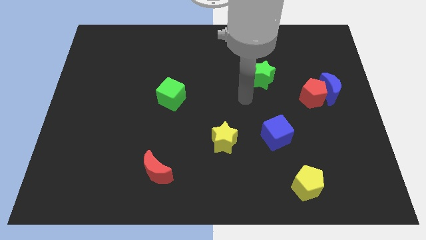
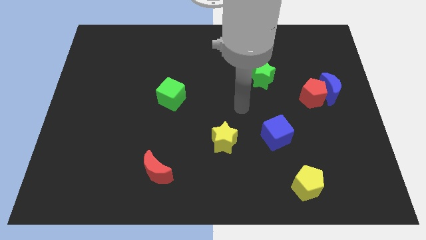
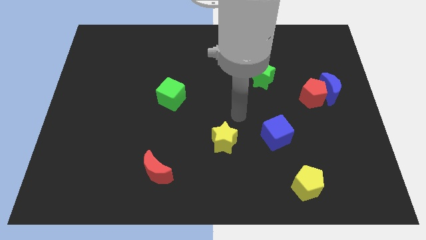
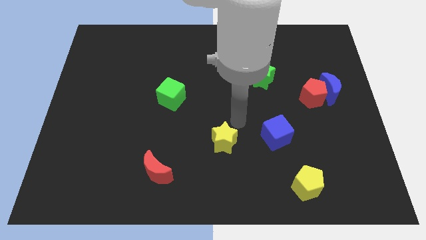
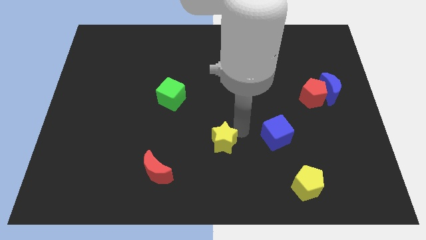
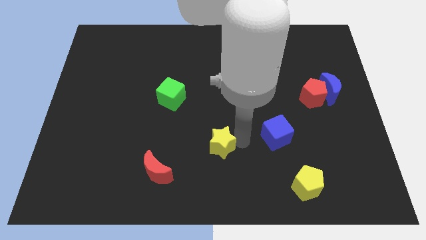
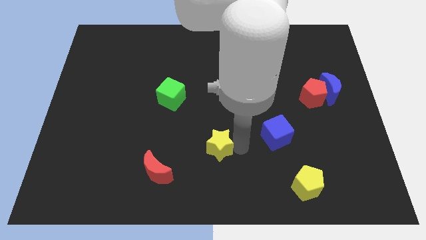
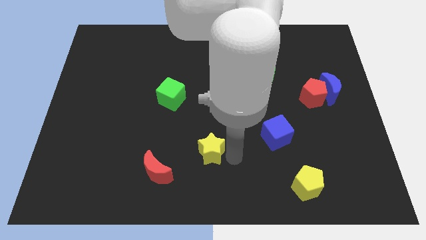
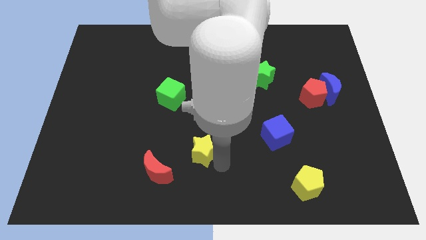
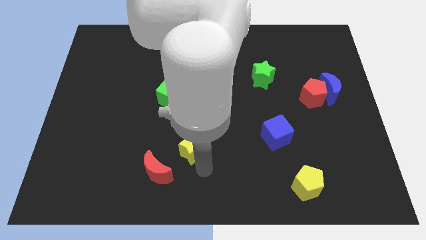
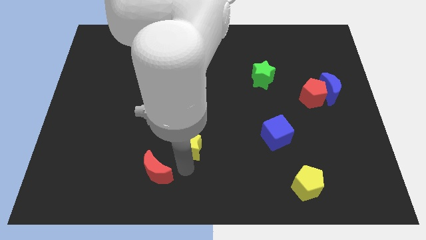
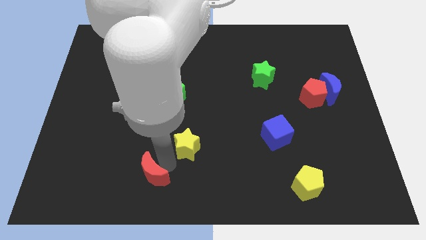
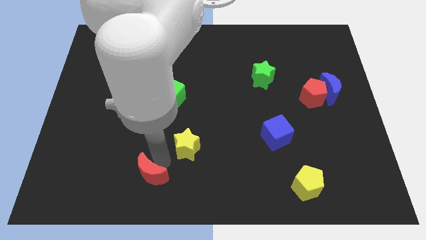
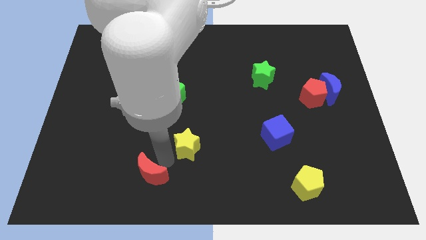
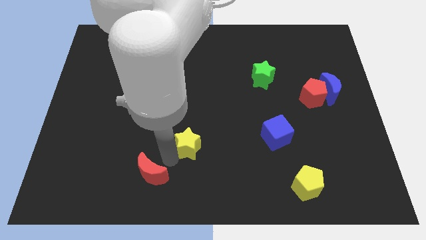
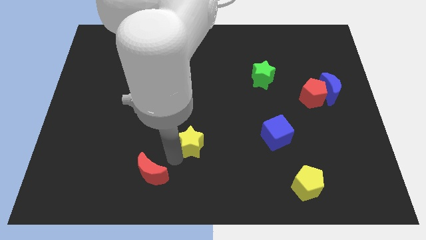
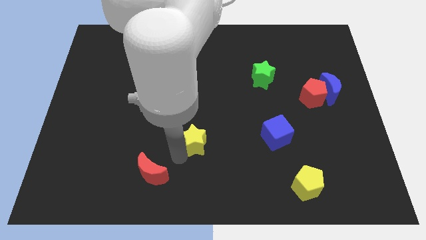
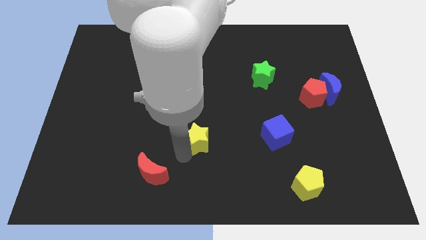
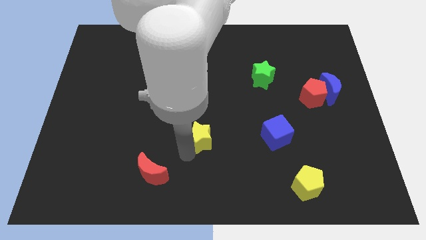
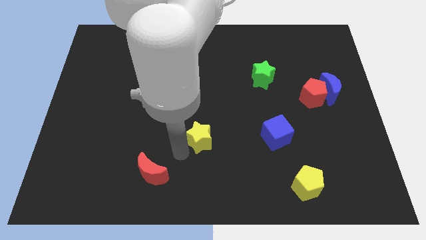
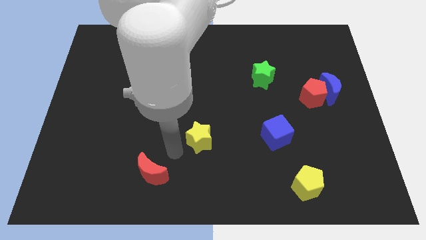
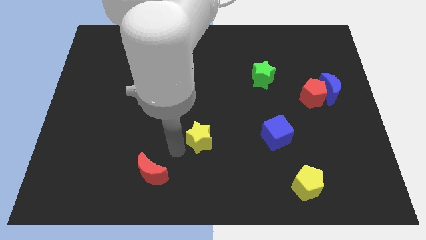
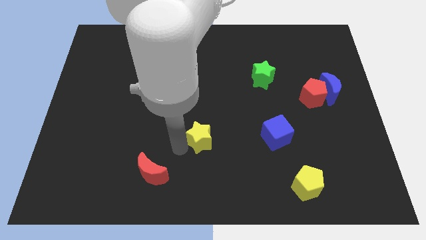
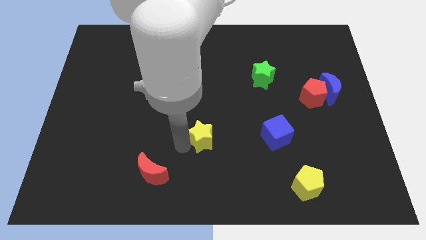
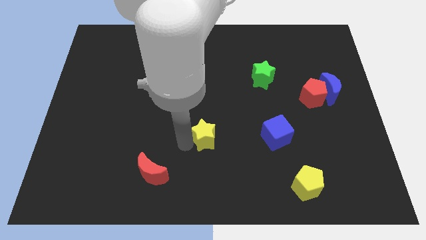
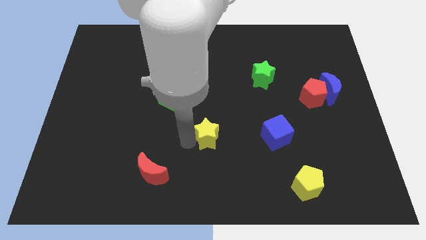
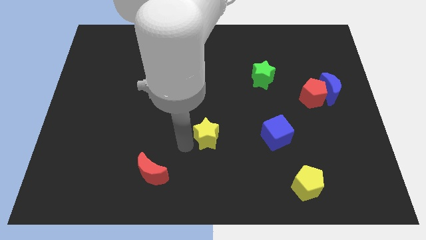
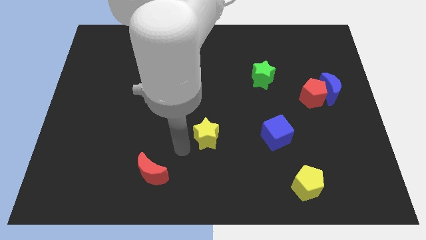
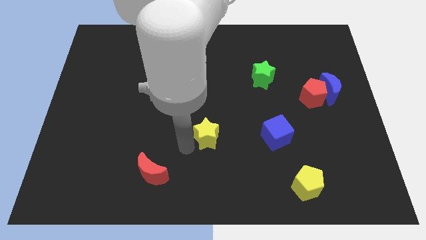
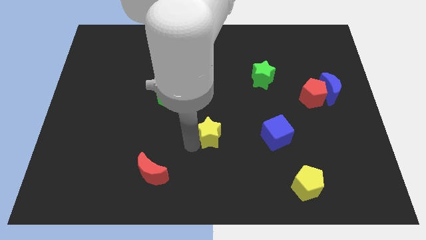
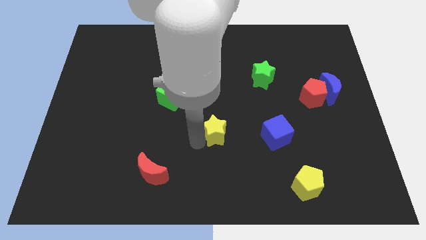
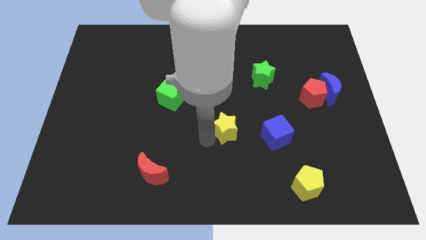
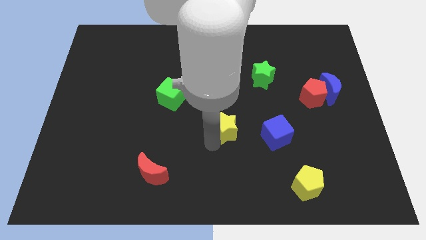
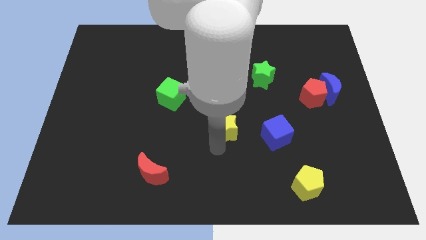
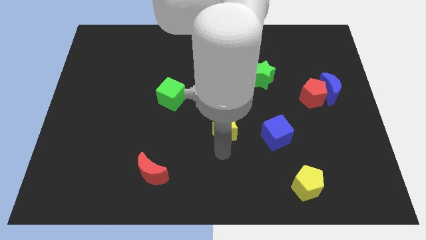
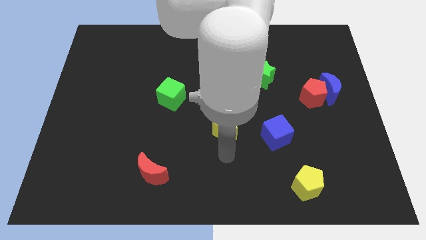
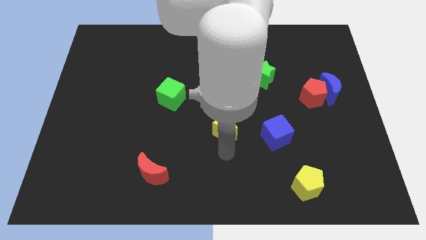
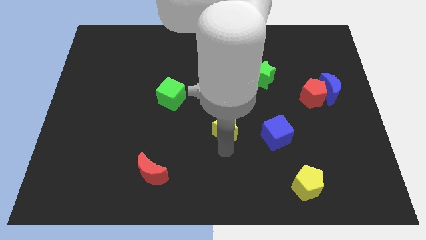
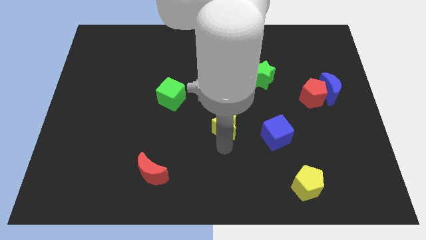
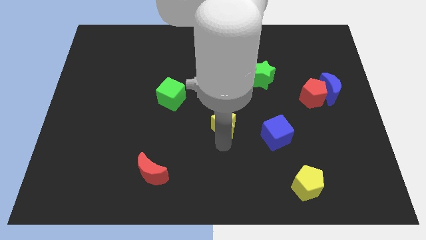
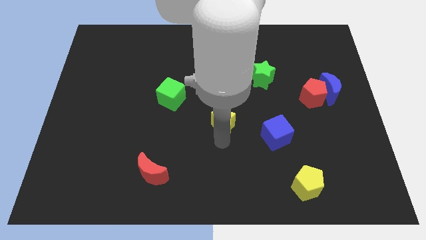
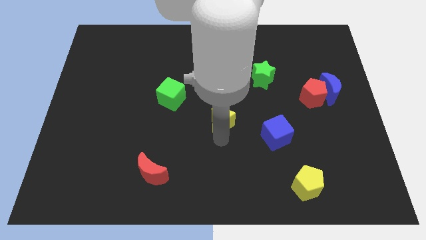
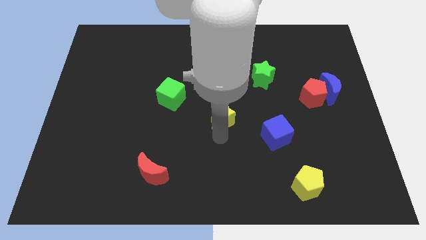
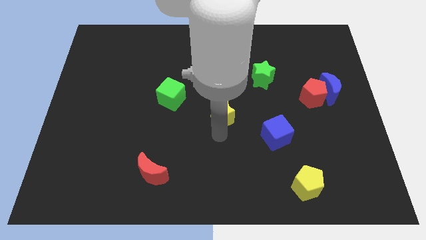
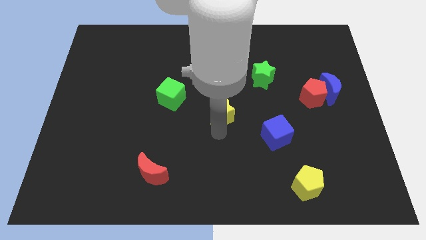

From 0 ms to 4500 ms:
push the yellow star a bit upwards

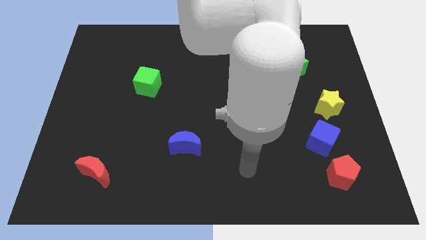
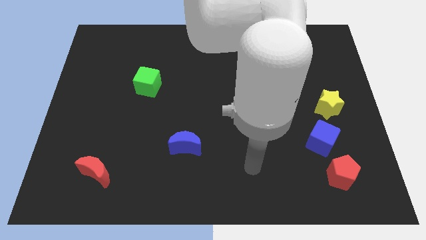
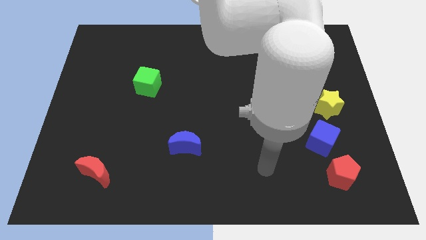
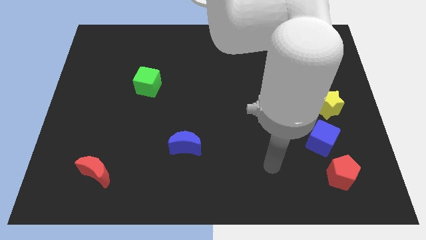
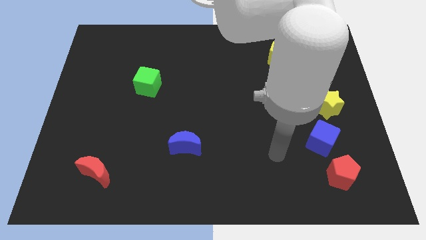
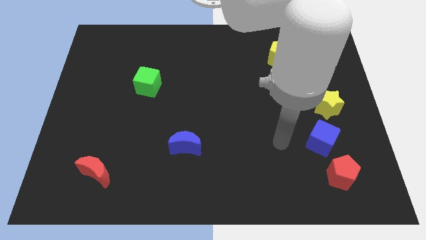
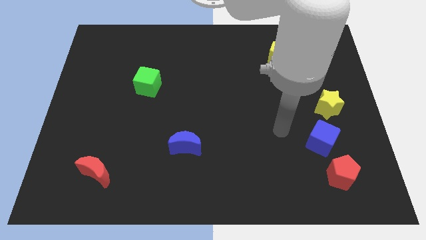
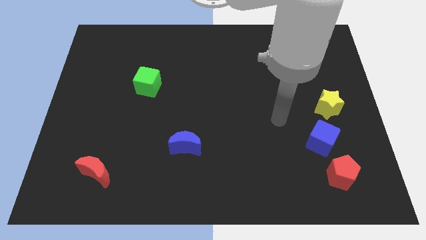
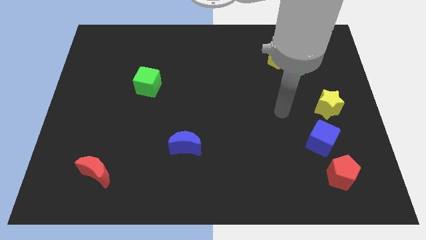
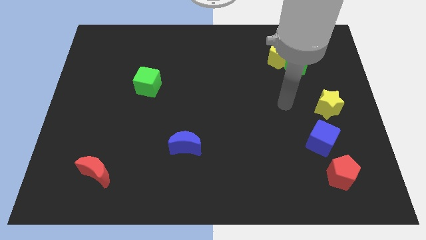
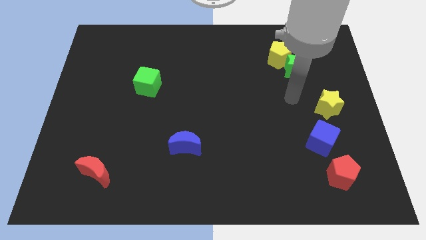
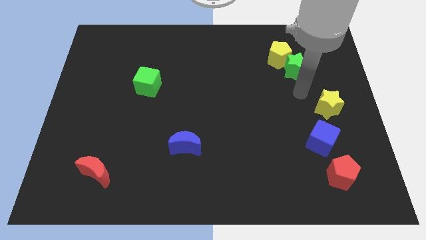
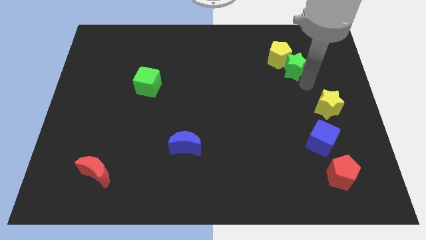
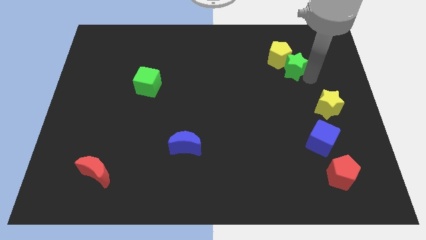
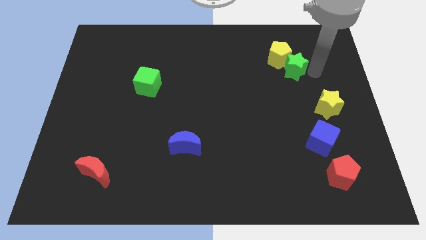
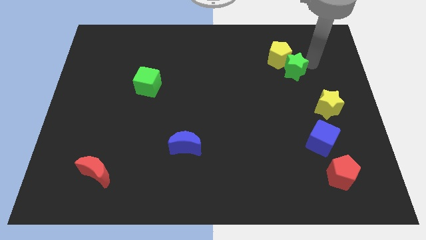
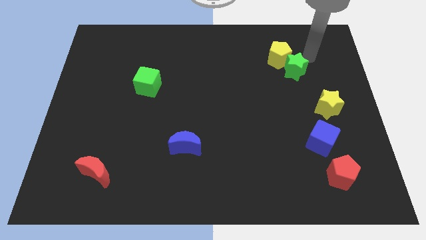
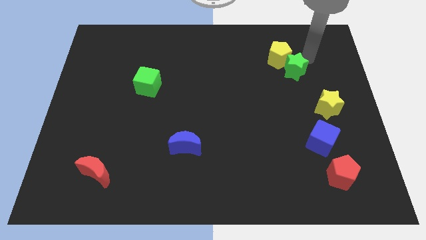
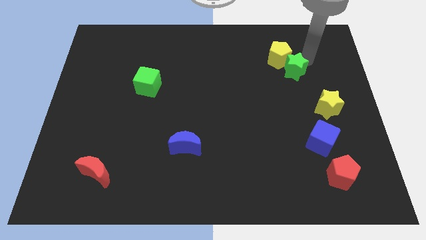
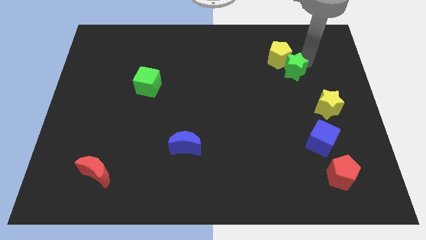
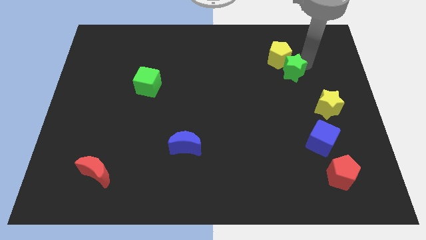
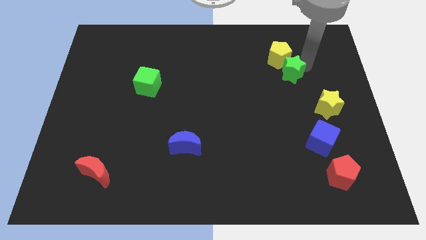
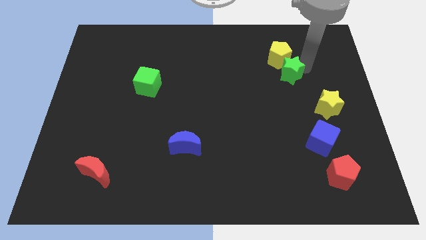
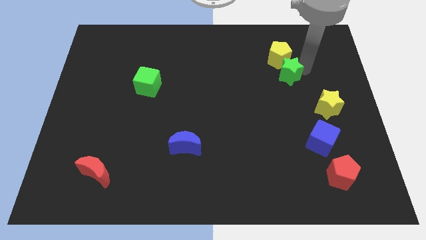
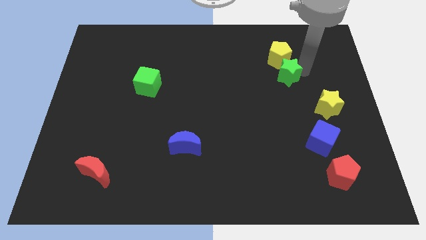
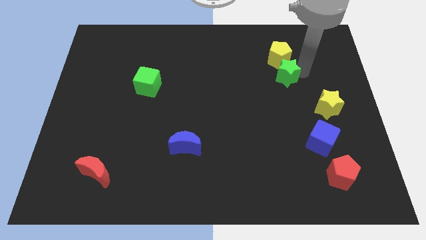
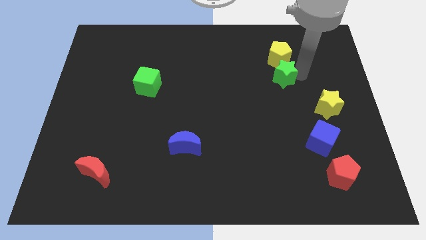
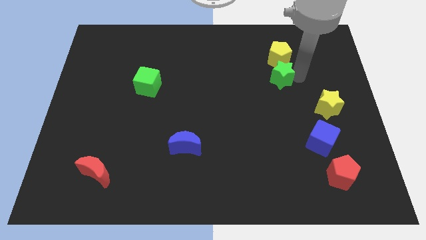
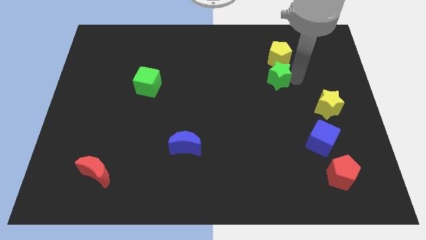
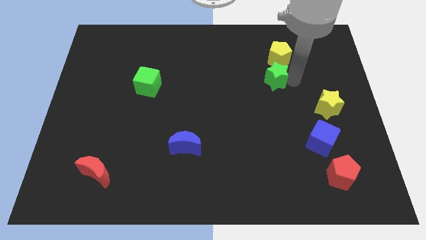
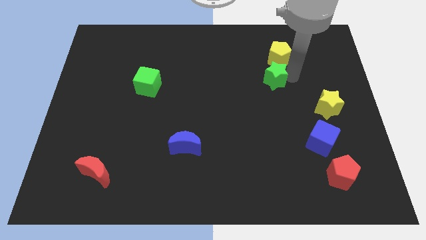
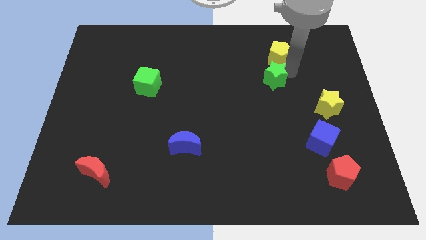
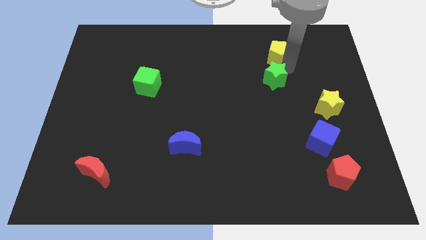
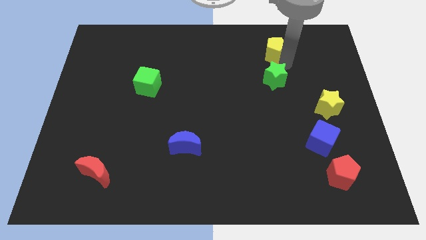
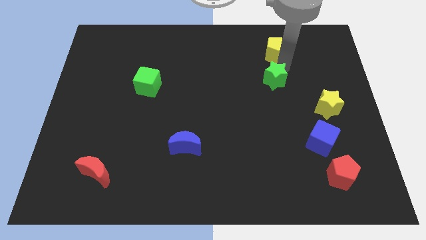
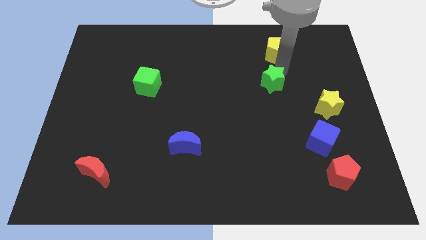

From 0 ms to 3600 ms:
slide the green star somewhat downwards and then left
